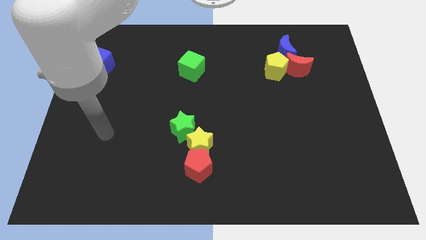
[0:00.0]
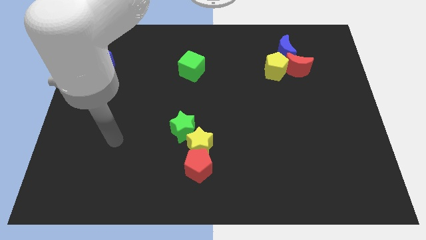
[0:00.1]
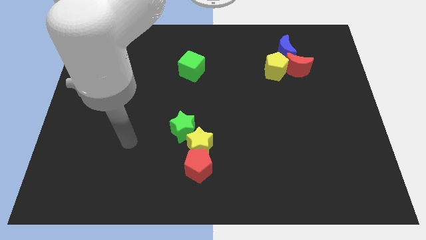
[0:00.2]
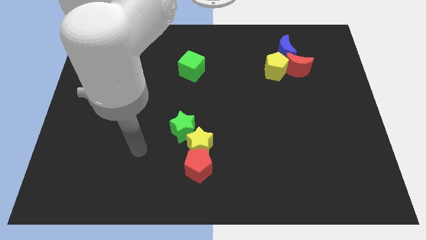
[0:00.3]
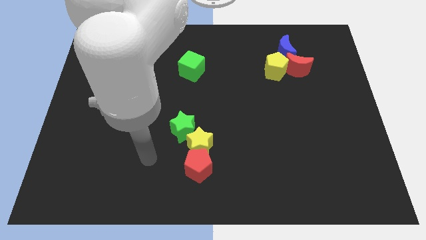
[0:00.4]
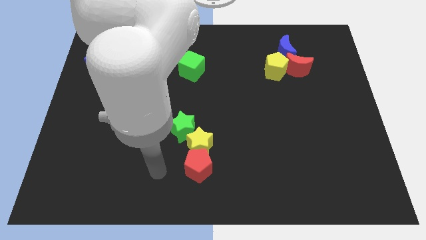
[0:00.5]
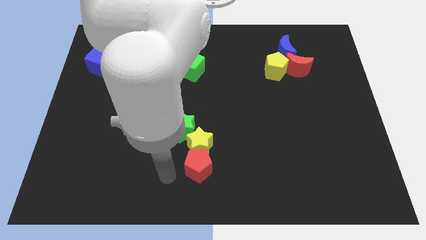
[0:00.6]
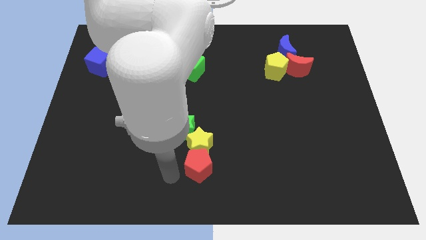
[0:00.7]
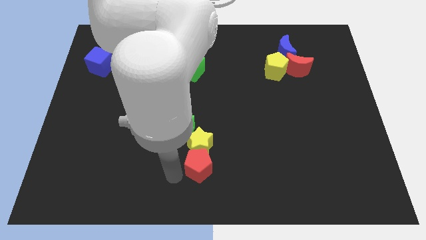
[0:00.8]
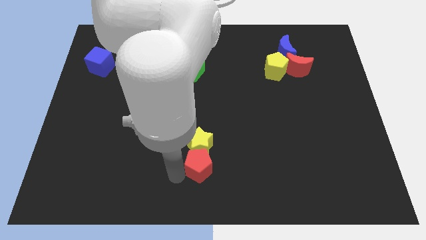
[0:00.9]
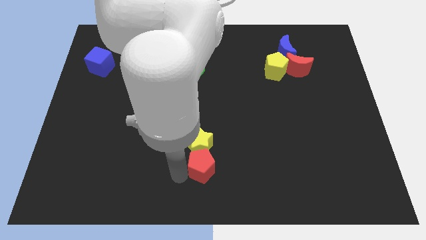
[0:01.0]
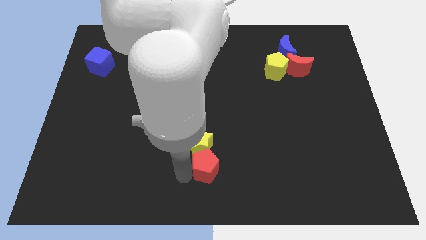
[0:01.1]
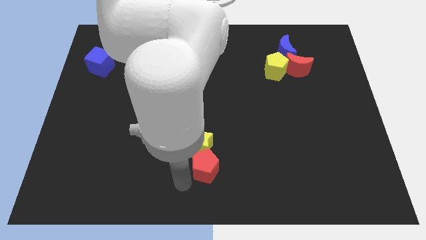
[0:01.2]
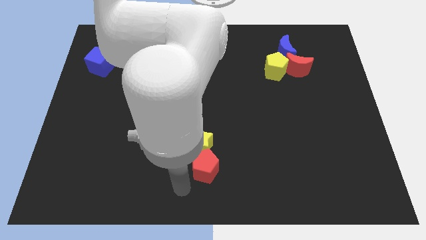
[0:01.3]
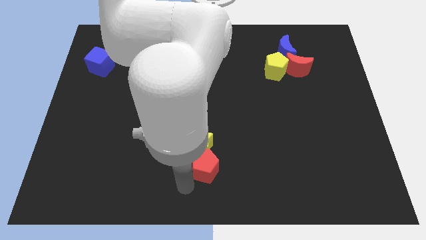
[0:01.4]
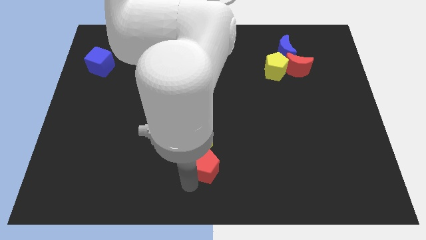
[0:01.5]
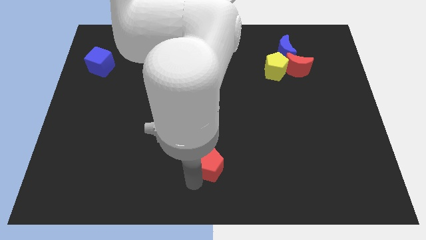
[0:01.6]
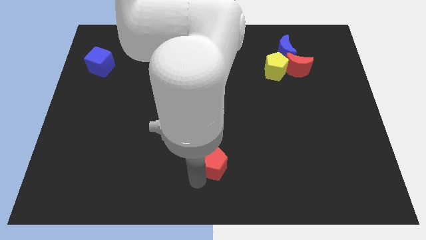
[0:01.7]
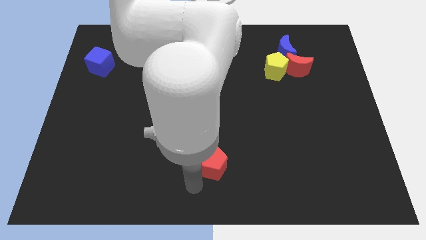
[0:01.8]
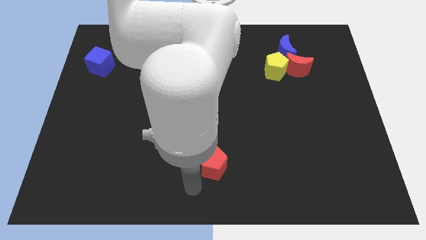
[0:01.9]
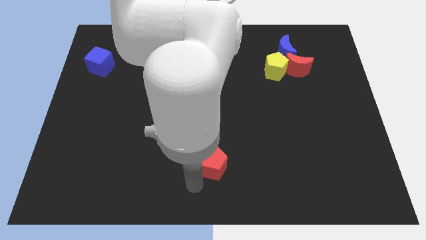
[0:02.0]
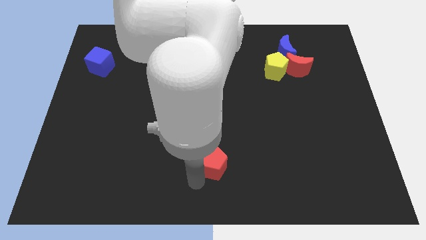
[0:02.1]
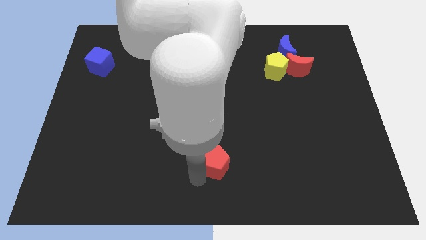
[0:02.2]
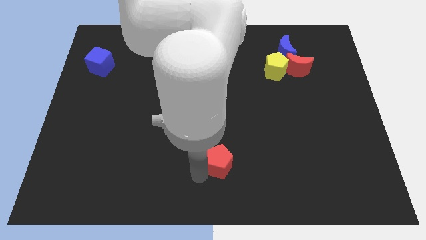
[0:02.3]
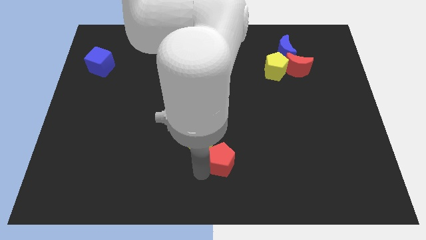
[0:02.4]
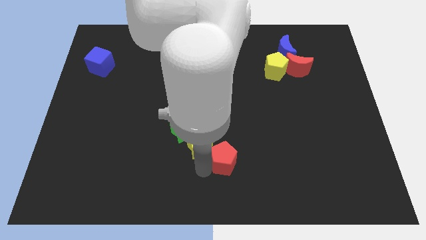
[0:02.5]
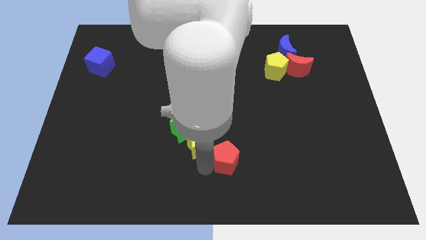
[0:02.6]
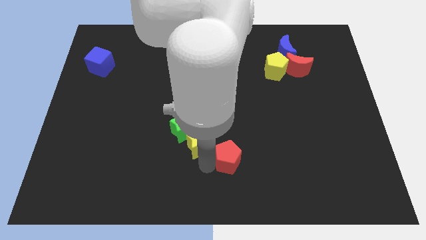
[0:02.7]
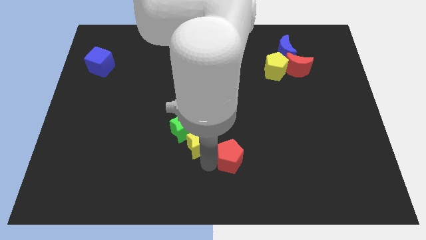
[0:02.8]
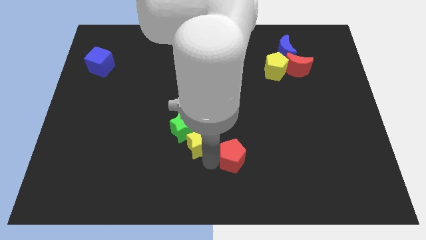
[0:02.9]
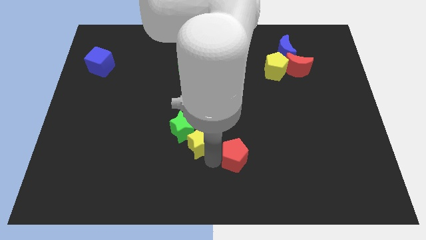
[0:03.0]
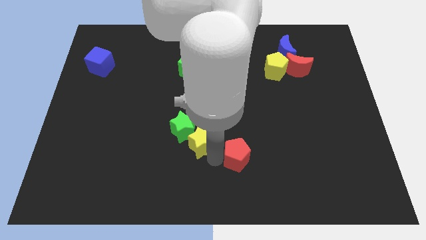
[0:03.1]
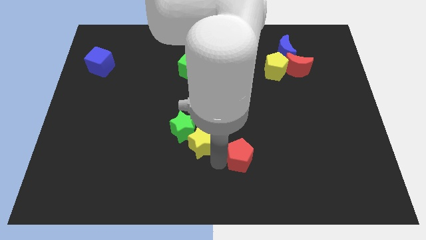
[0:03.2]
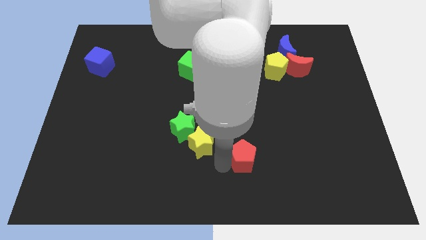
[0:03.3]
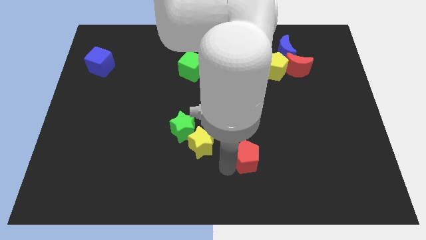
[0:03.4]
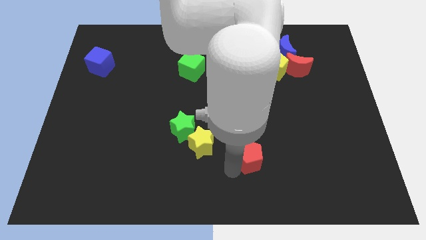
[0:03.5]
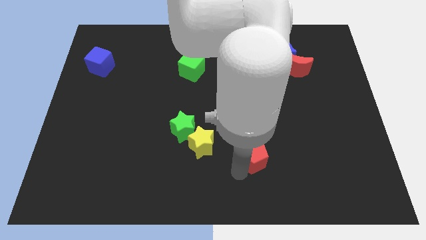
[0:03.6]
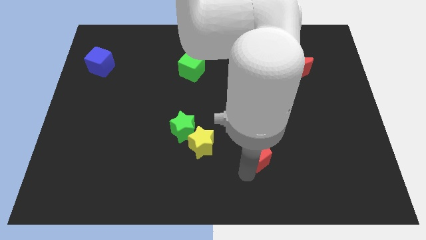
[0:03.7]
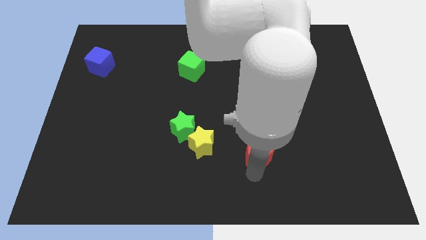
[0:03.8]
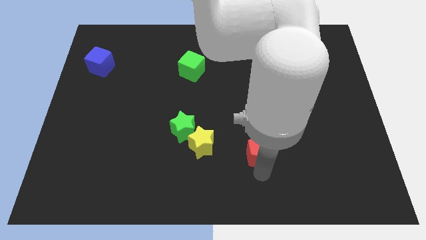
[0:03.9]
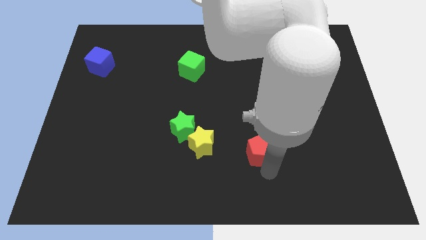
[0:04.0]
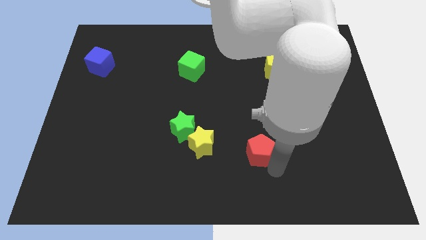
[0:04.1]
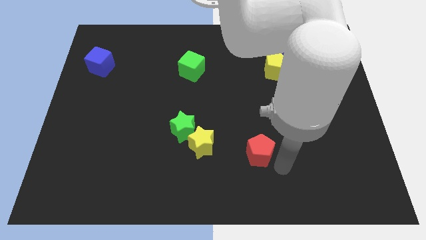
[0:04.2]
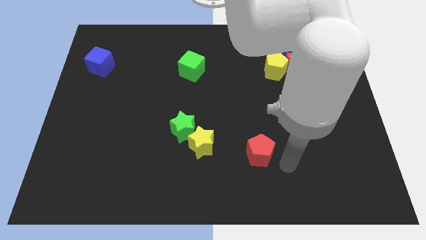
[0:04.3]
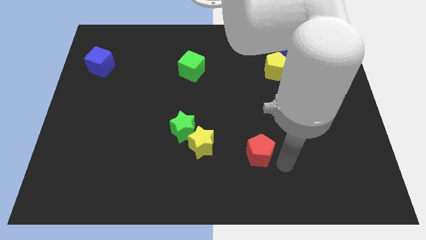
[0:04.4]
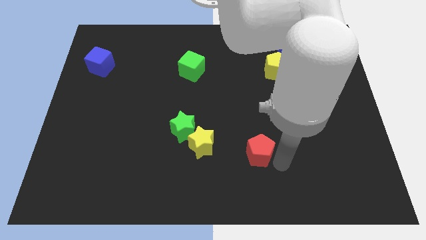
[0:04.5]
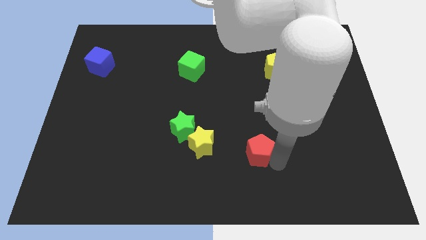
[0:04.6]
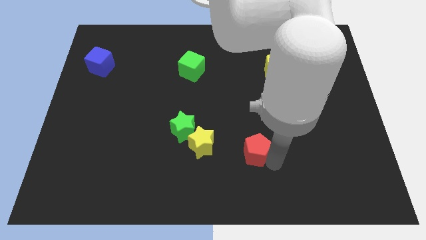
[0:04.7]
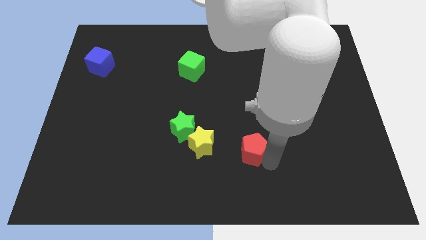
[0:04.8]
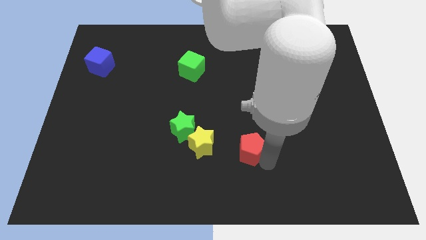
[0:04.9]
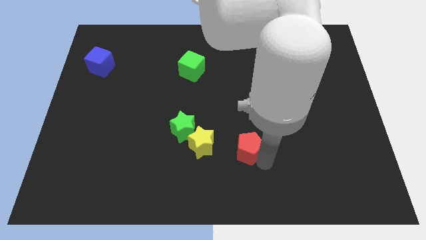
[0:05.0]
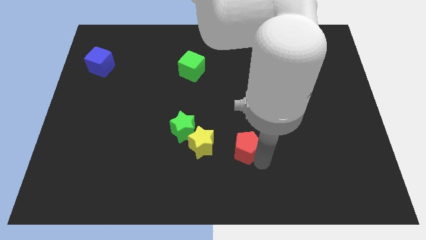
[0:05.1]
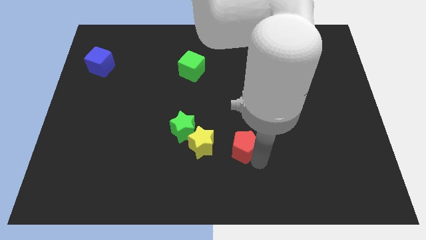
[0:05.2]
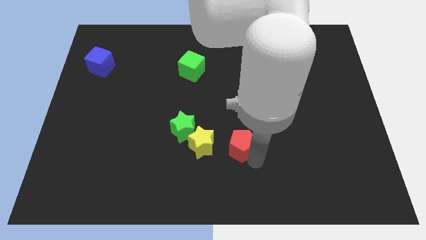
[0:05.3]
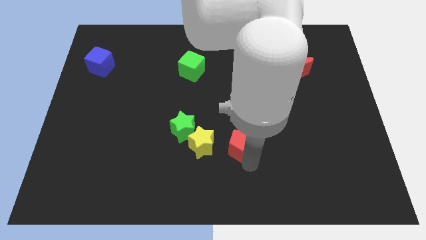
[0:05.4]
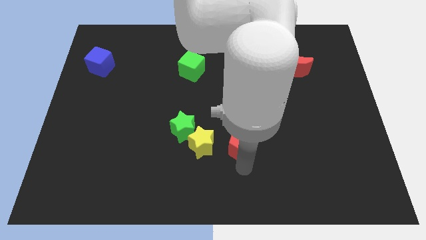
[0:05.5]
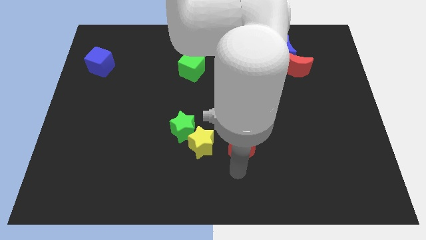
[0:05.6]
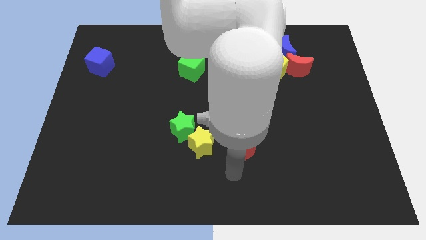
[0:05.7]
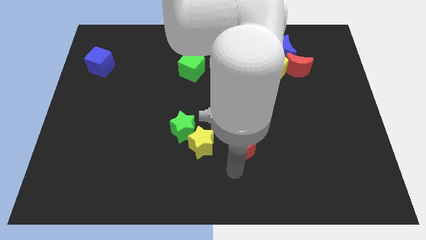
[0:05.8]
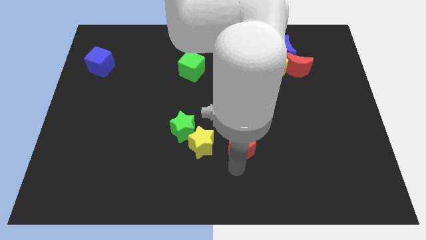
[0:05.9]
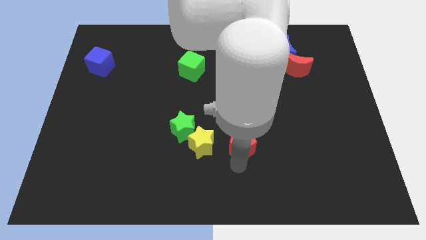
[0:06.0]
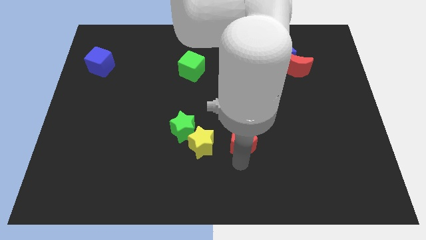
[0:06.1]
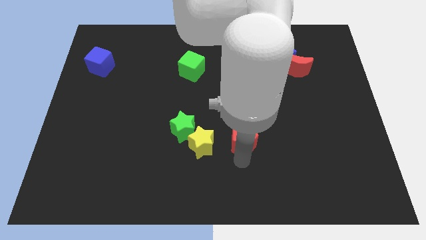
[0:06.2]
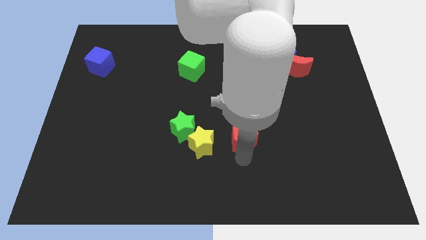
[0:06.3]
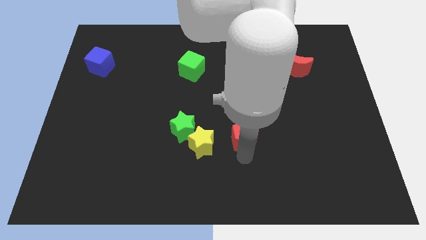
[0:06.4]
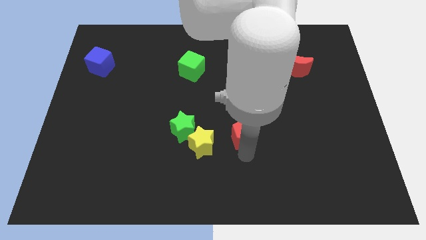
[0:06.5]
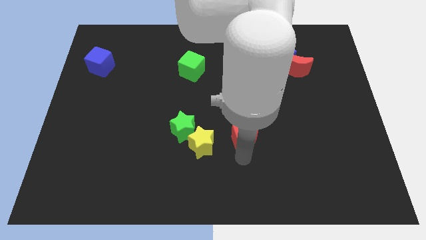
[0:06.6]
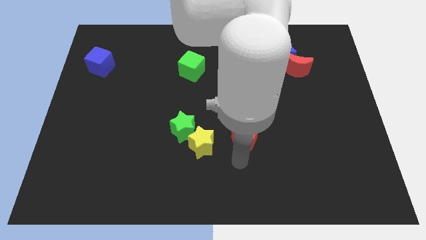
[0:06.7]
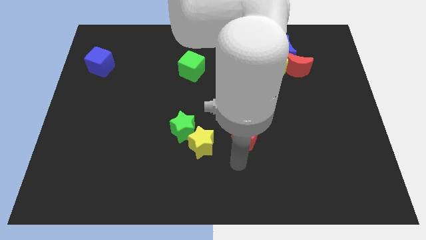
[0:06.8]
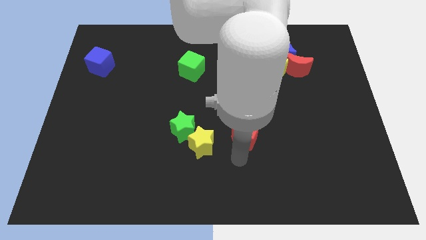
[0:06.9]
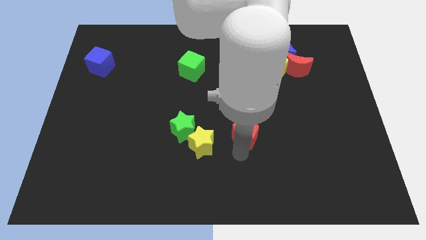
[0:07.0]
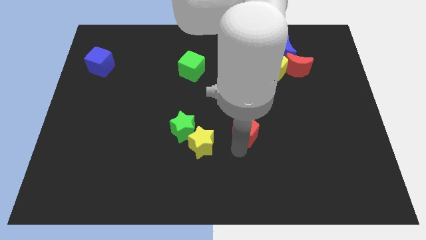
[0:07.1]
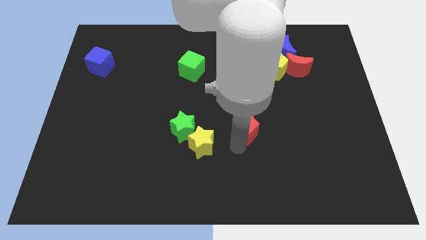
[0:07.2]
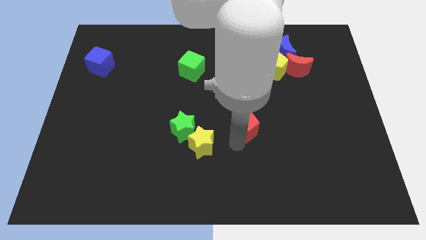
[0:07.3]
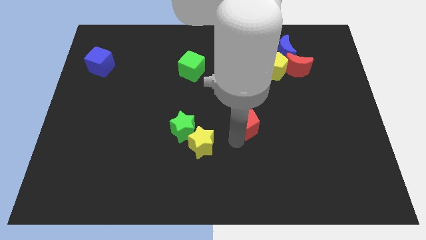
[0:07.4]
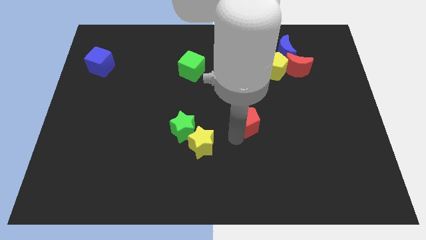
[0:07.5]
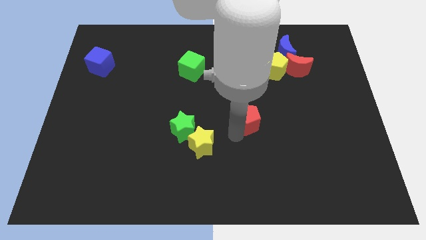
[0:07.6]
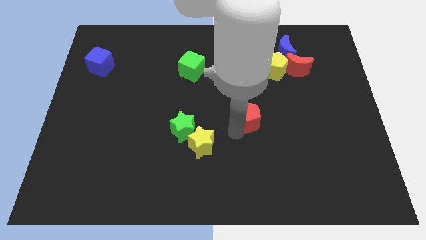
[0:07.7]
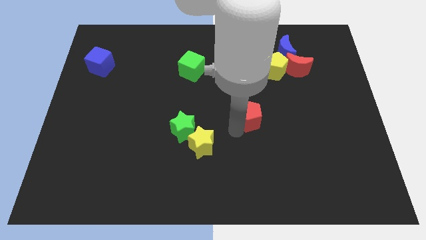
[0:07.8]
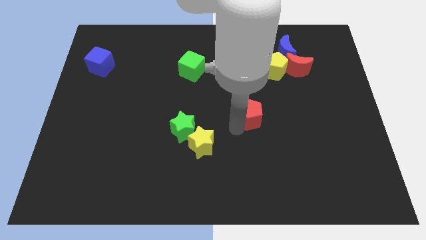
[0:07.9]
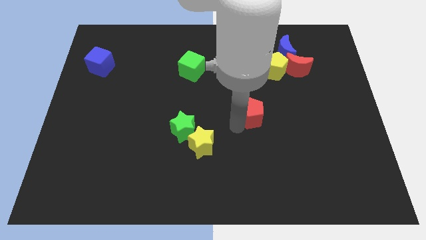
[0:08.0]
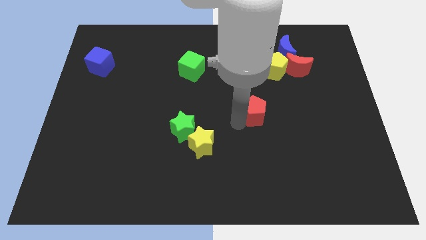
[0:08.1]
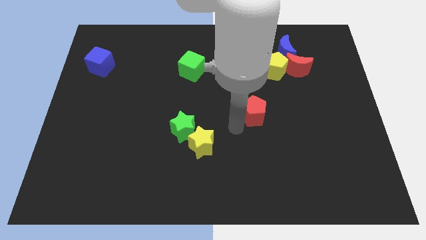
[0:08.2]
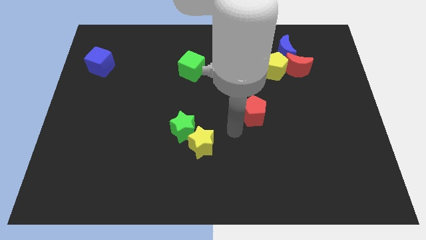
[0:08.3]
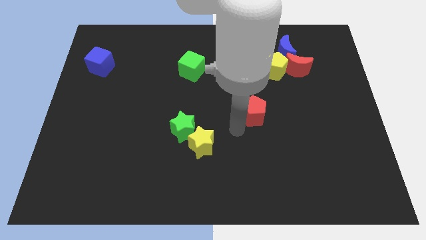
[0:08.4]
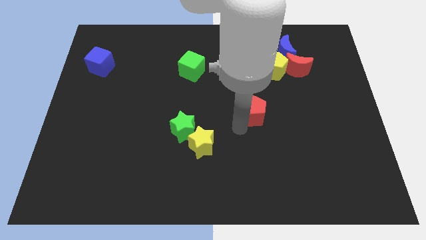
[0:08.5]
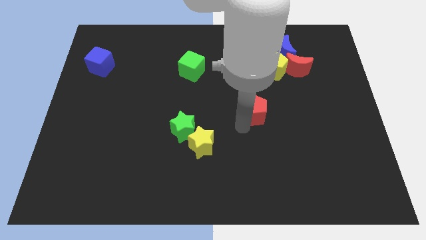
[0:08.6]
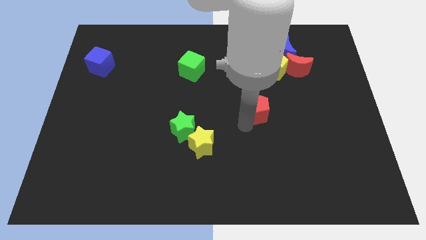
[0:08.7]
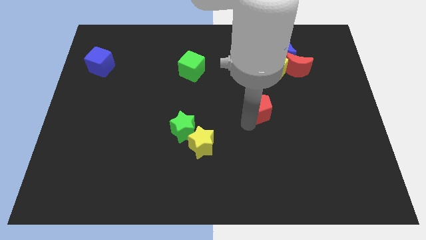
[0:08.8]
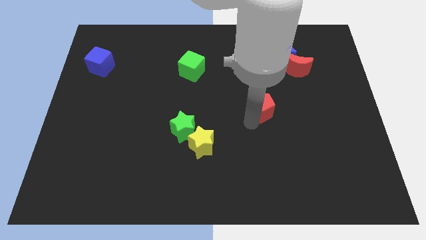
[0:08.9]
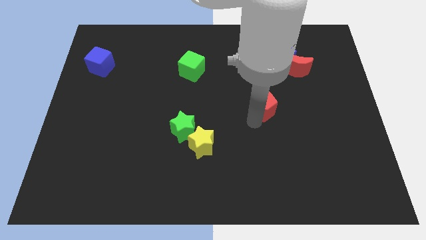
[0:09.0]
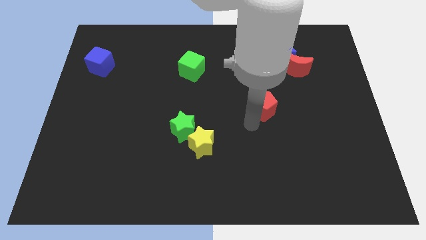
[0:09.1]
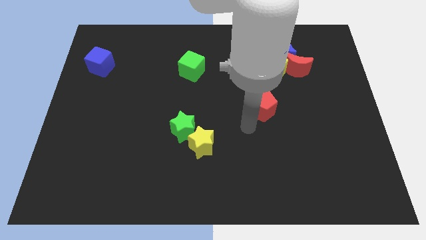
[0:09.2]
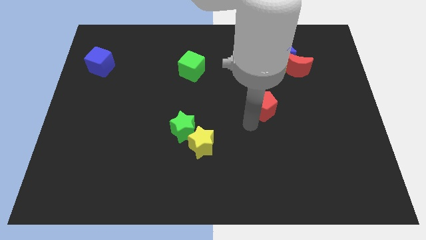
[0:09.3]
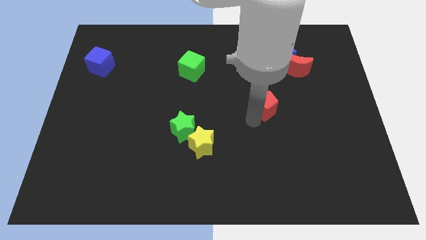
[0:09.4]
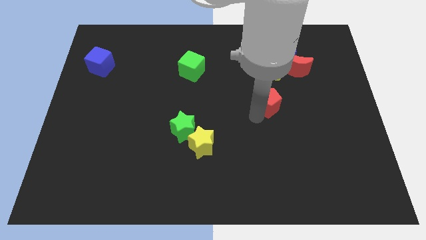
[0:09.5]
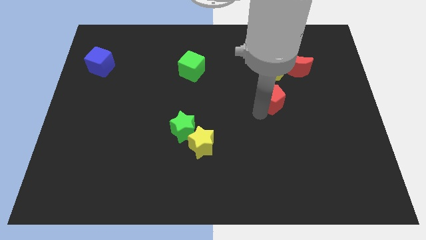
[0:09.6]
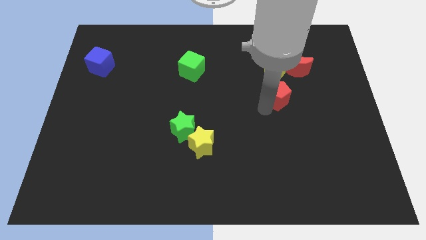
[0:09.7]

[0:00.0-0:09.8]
push the red pentagon to the bottom left of the red moon
